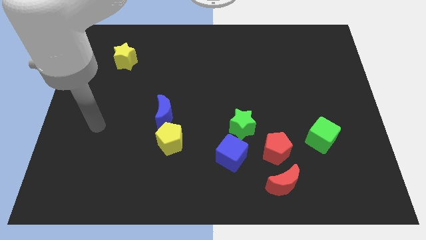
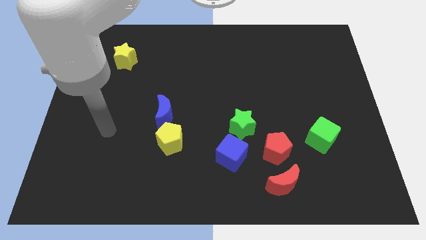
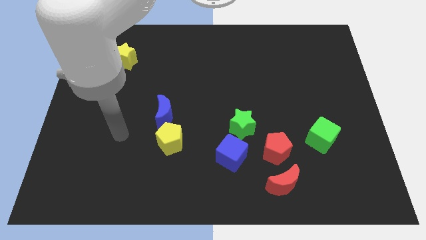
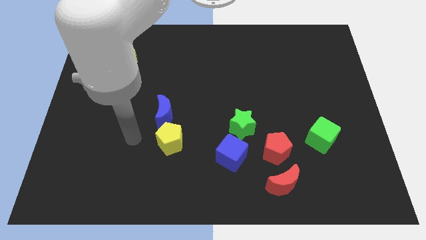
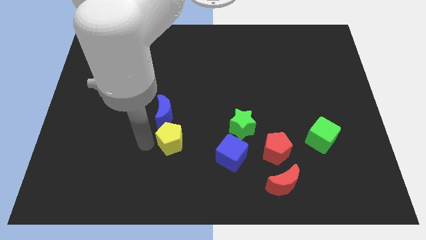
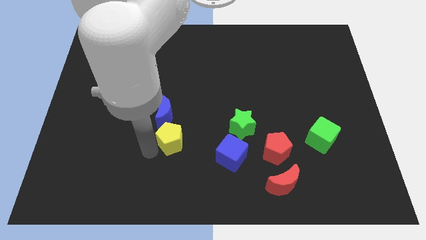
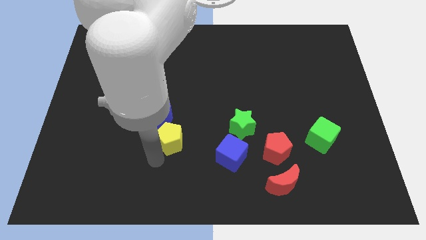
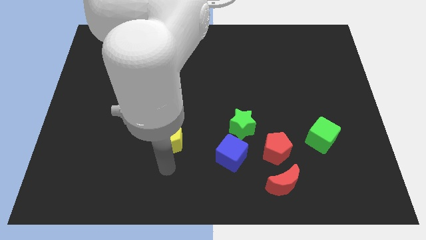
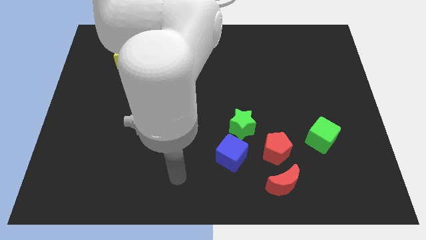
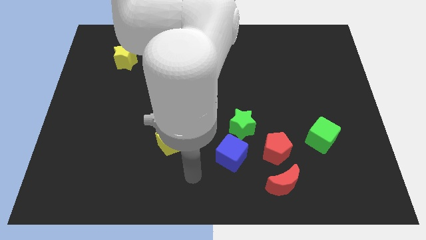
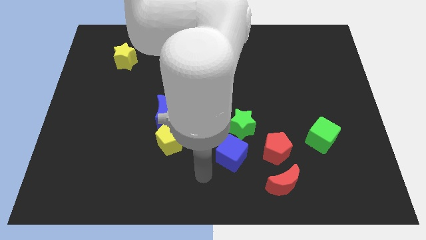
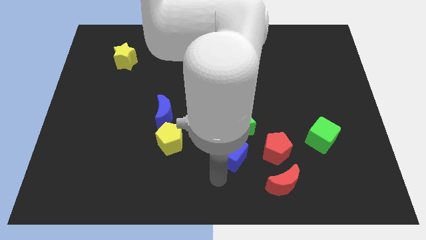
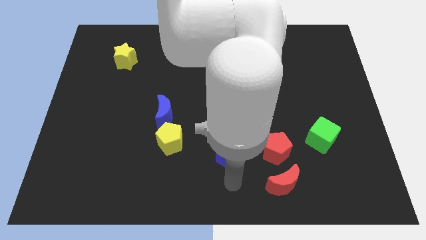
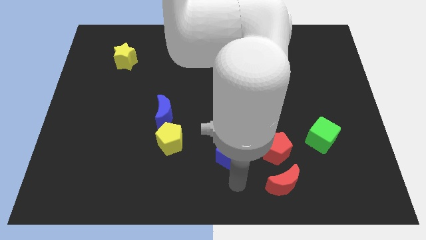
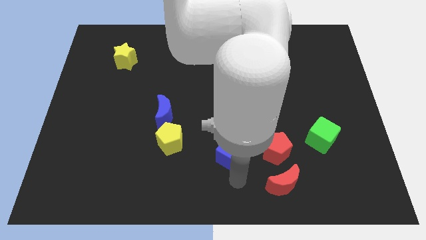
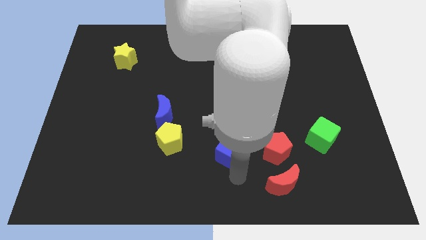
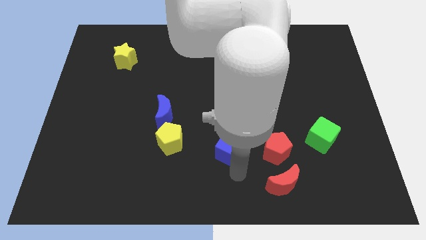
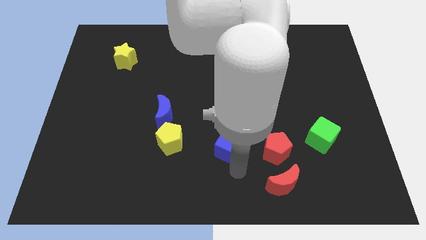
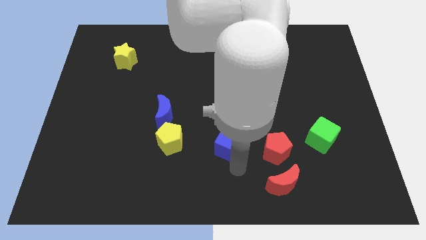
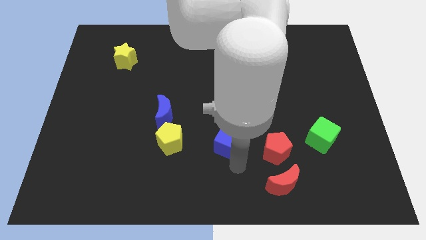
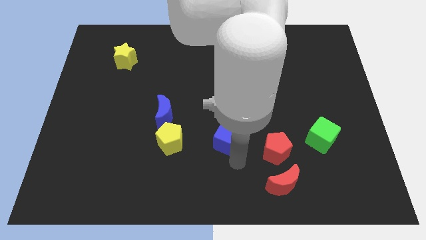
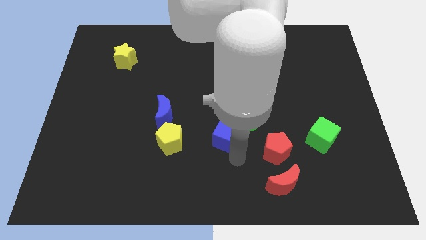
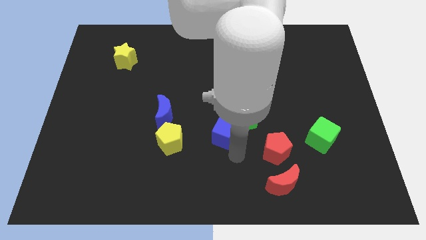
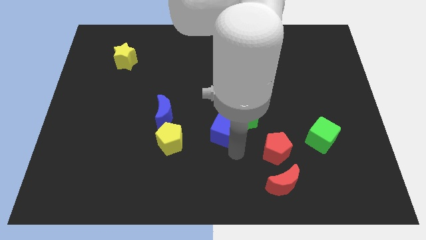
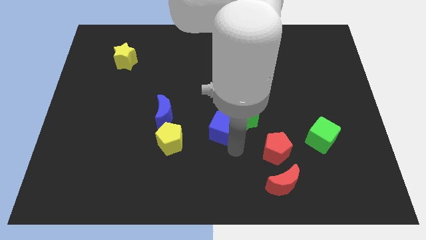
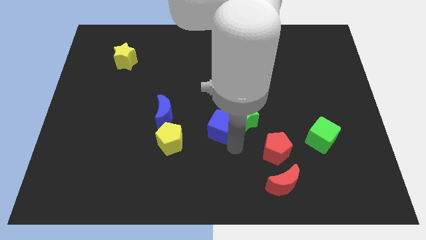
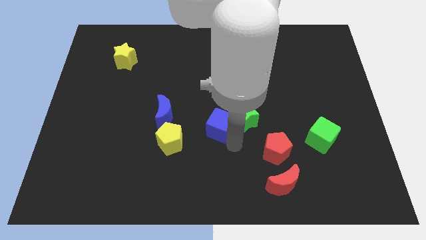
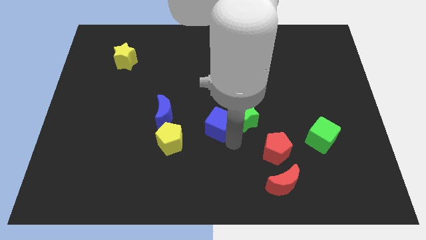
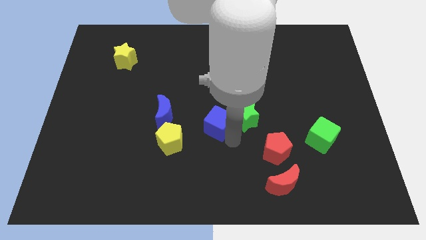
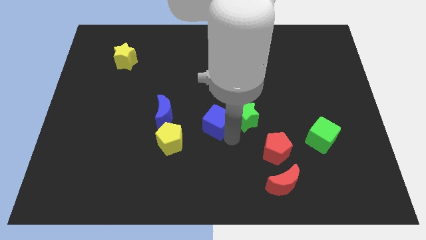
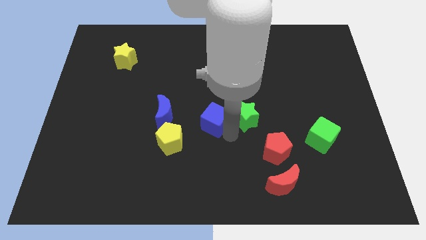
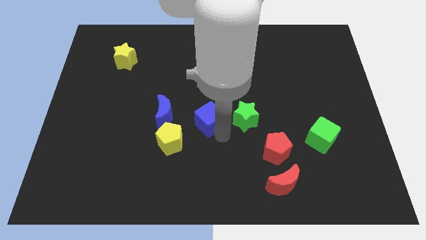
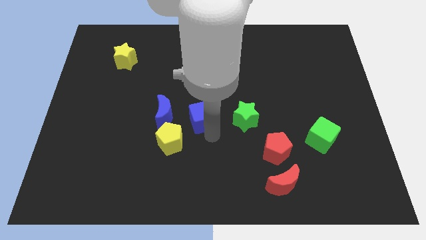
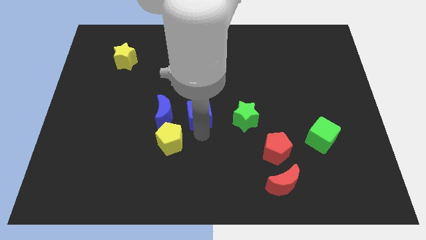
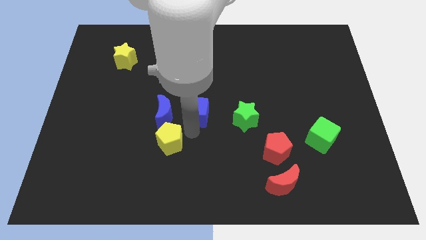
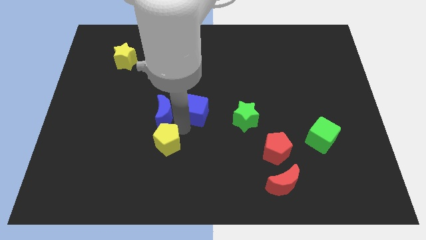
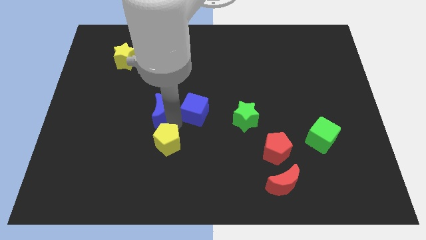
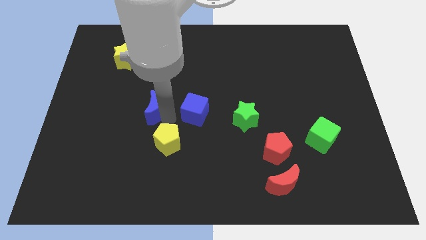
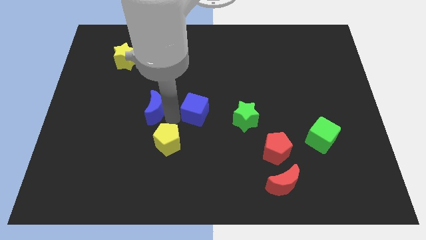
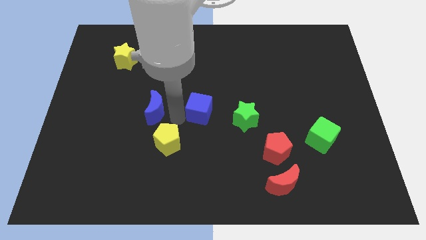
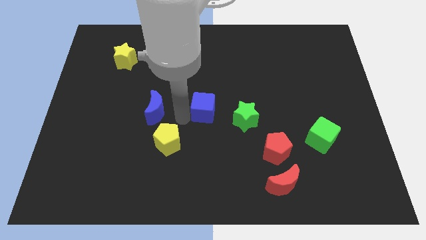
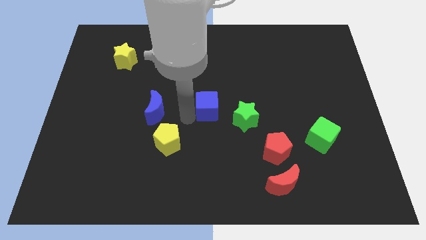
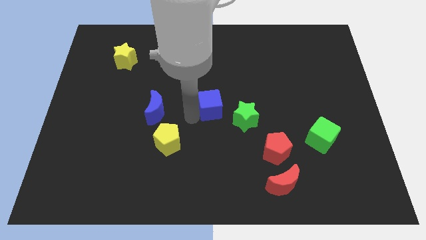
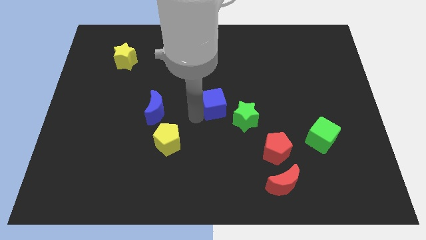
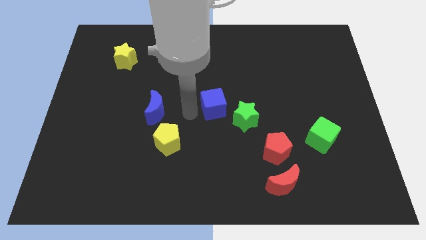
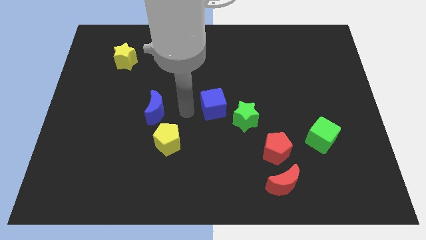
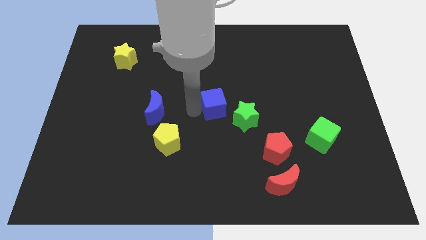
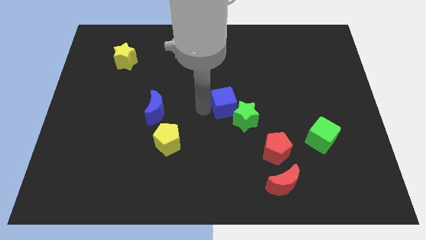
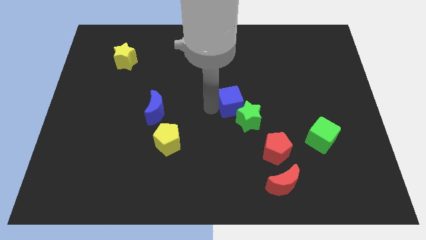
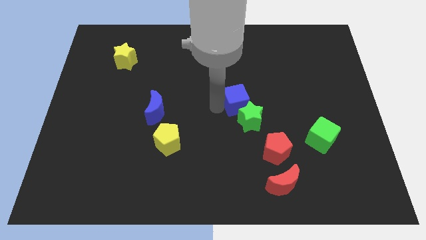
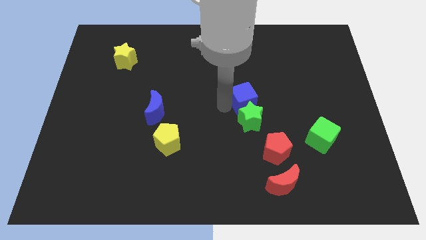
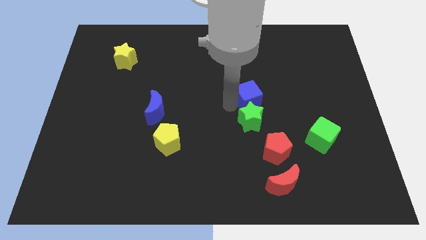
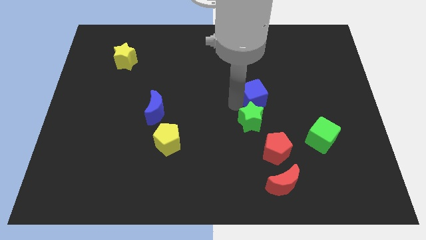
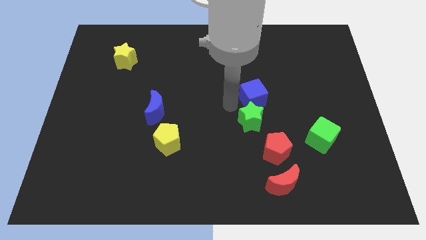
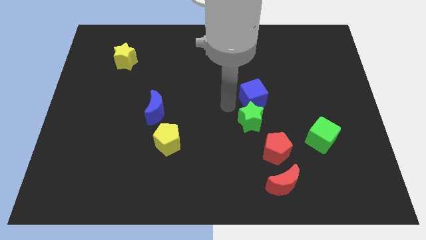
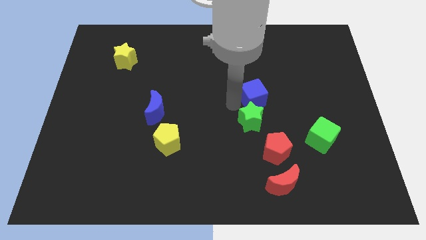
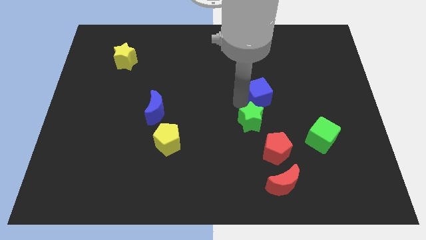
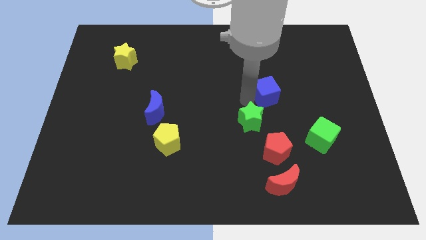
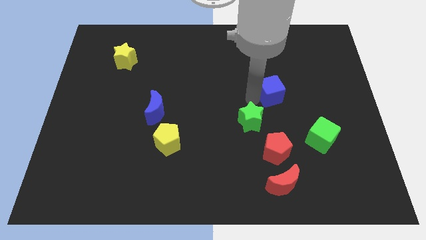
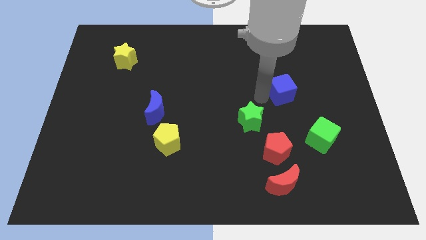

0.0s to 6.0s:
move the blue cube up and to the right

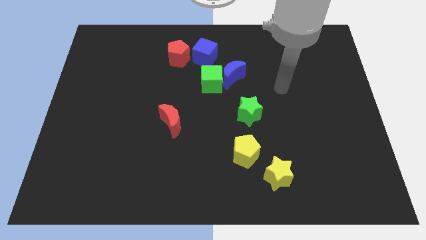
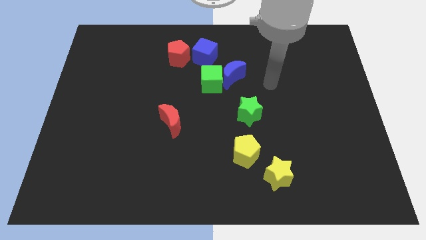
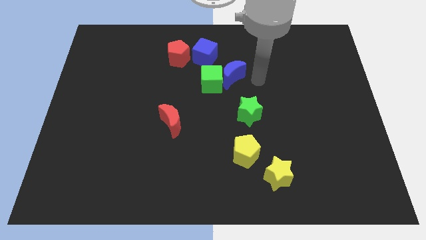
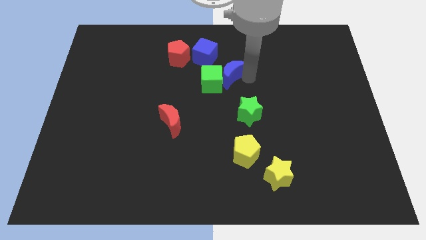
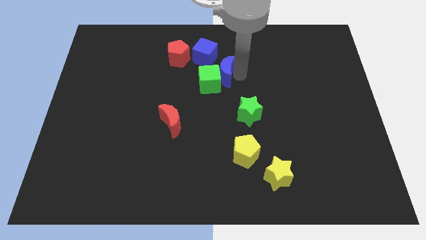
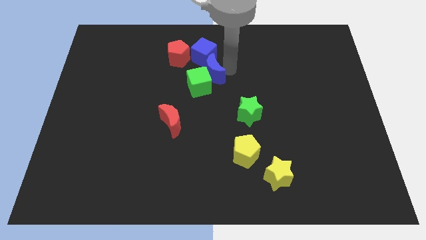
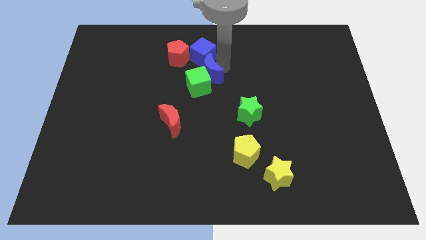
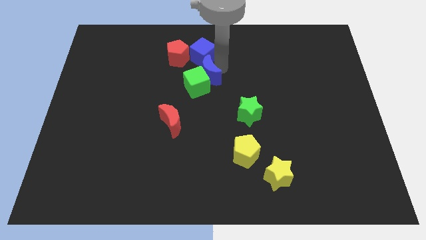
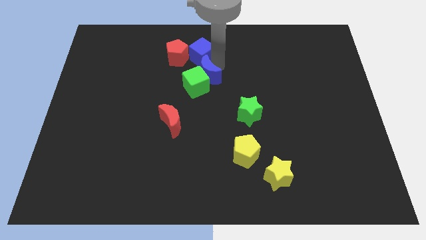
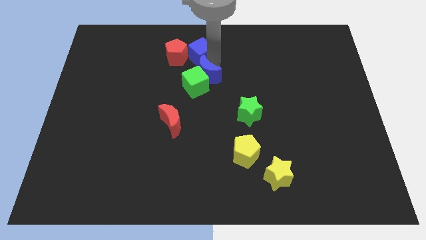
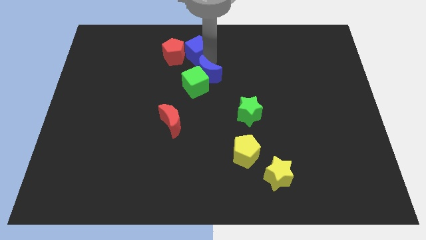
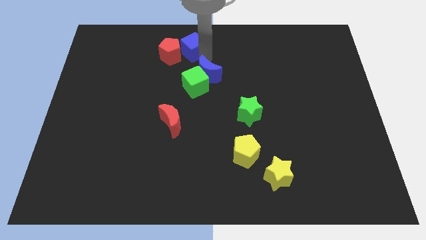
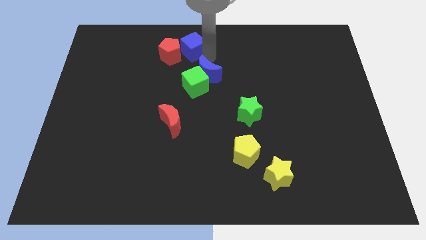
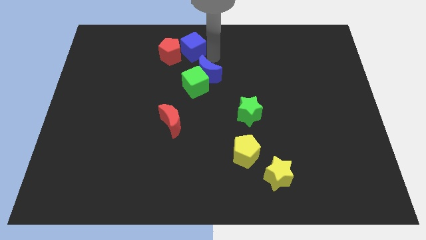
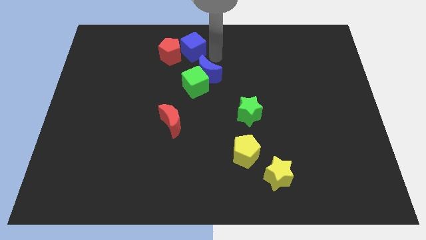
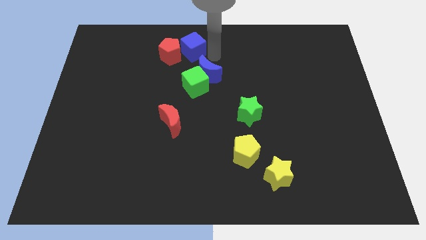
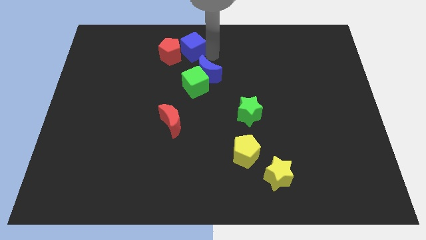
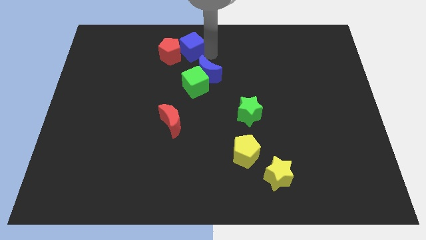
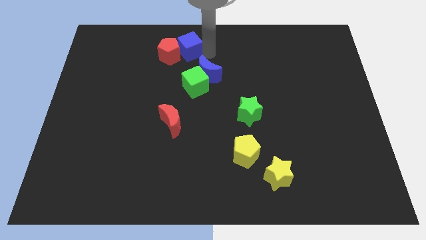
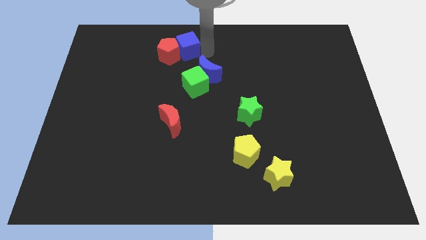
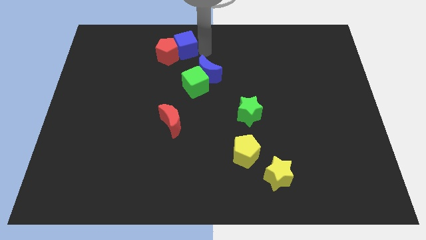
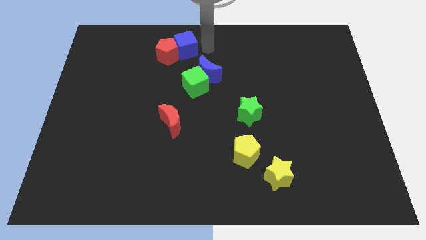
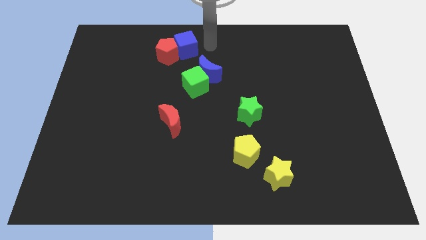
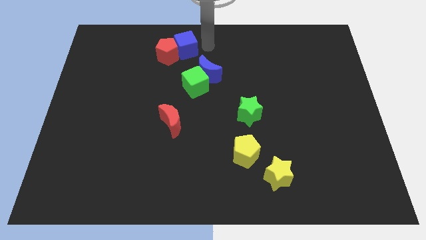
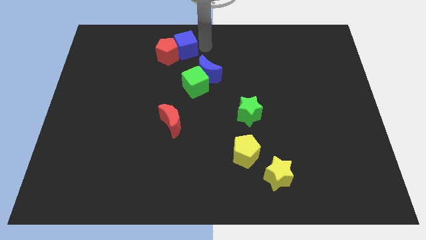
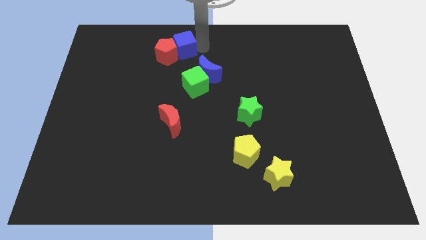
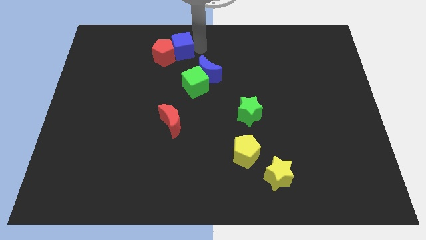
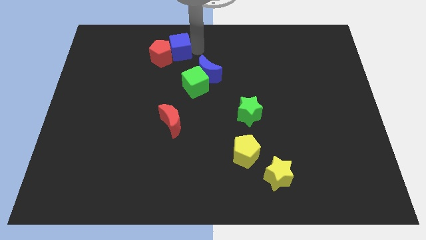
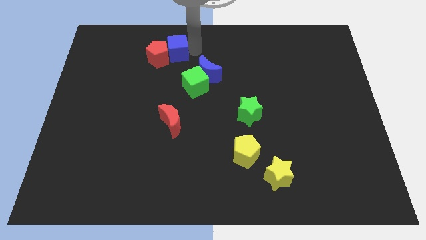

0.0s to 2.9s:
slightly move the blue cube left
